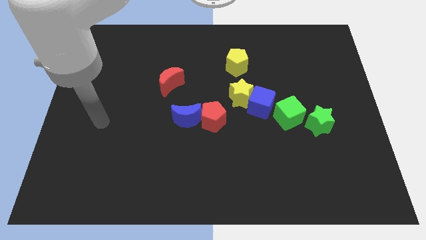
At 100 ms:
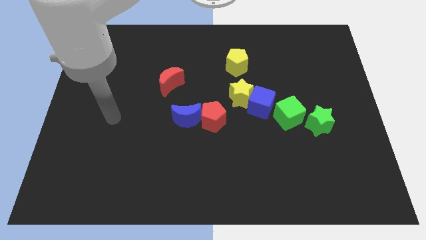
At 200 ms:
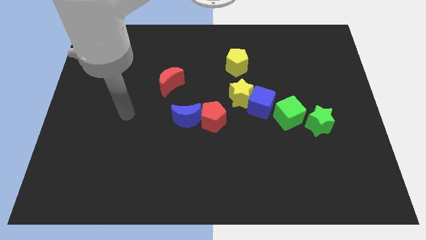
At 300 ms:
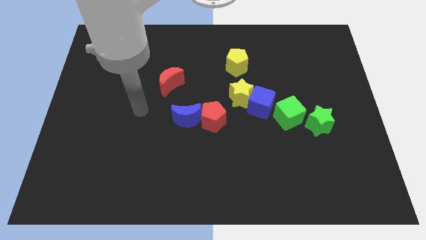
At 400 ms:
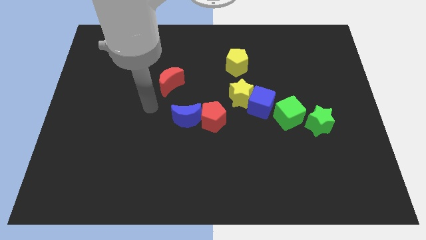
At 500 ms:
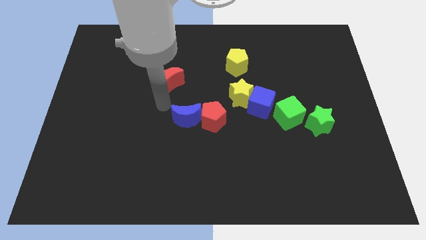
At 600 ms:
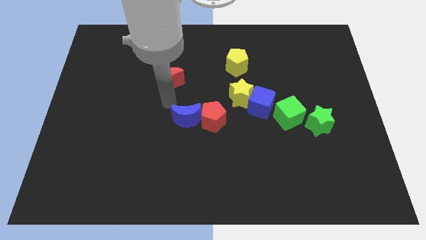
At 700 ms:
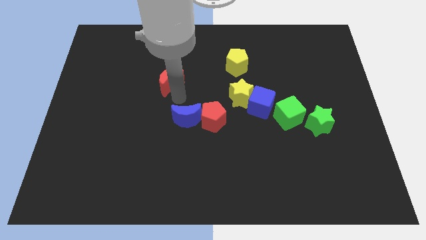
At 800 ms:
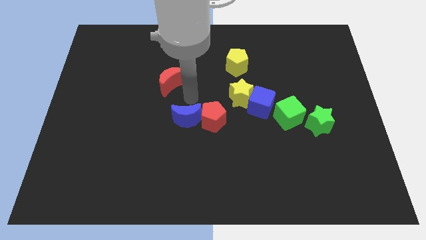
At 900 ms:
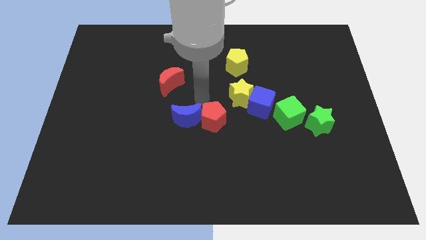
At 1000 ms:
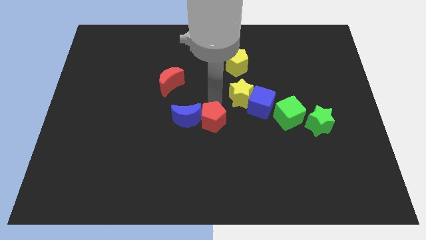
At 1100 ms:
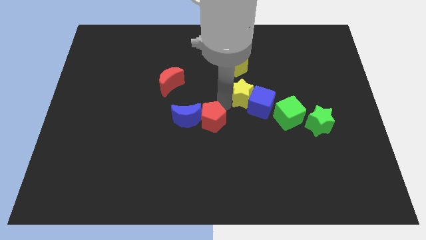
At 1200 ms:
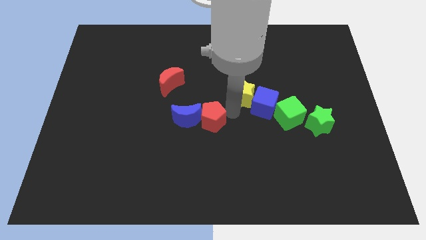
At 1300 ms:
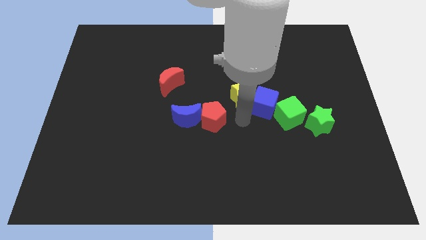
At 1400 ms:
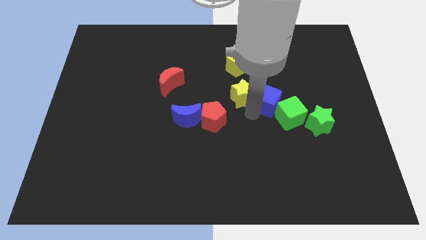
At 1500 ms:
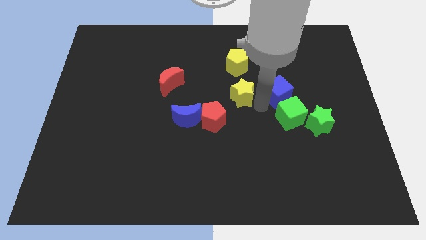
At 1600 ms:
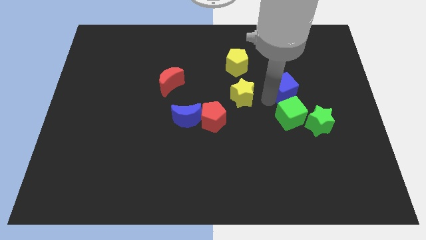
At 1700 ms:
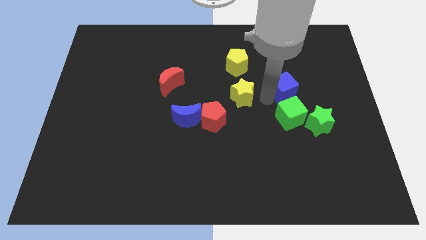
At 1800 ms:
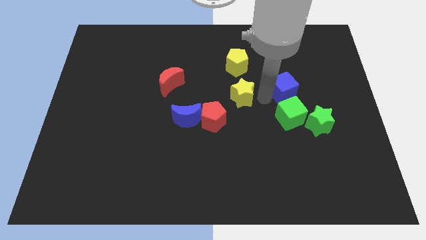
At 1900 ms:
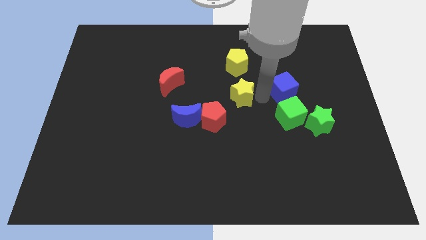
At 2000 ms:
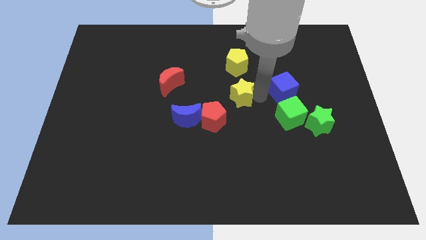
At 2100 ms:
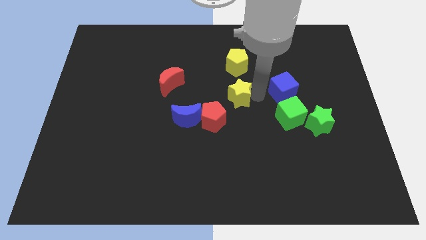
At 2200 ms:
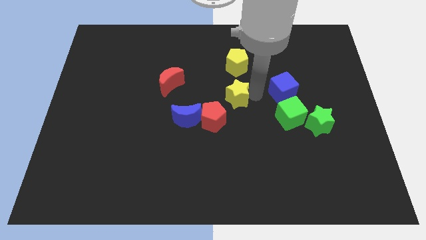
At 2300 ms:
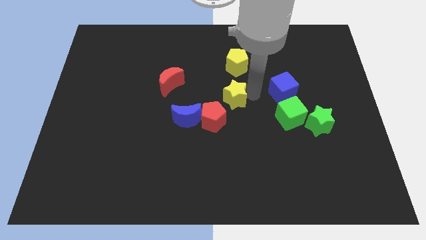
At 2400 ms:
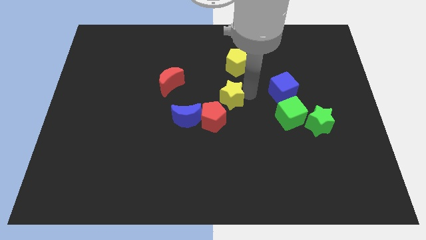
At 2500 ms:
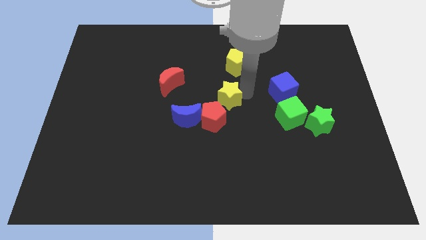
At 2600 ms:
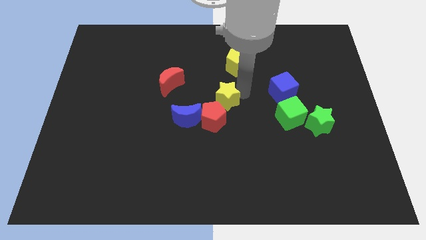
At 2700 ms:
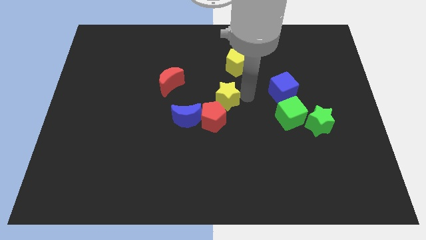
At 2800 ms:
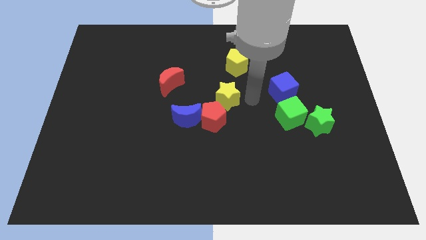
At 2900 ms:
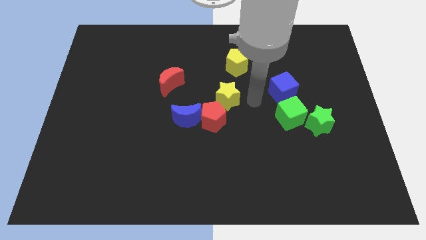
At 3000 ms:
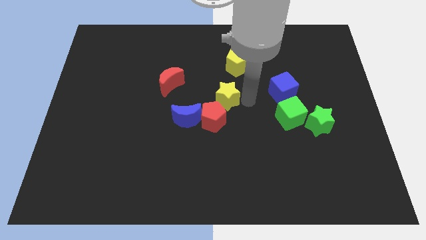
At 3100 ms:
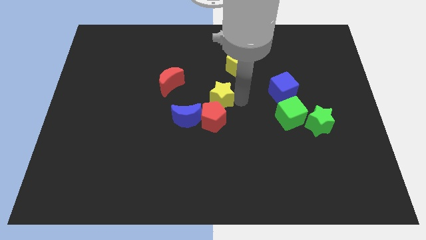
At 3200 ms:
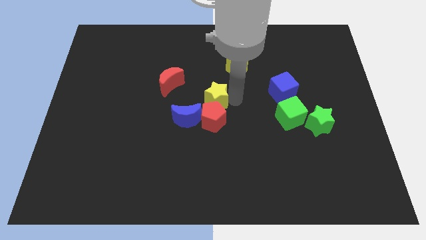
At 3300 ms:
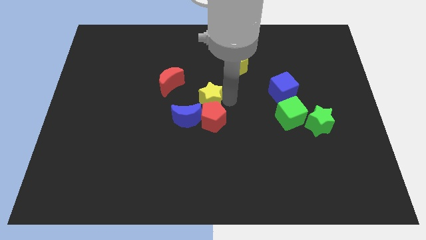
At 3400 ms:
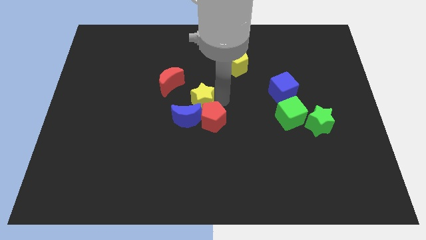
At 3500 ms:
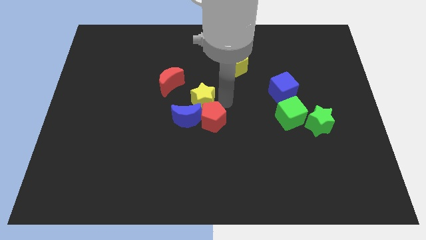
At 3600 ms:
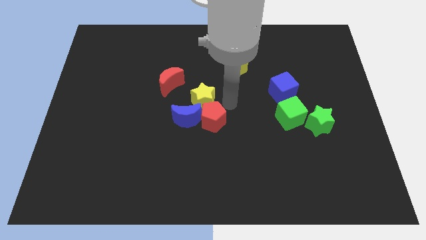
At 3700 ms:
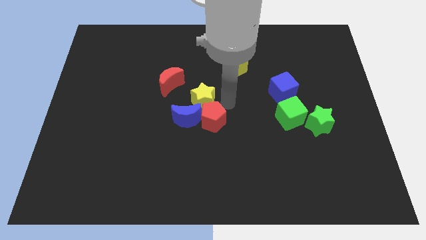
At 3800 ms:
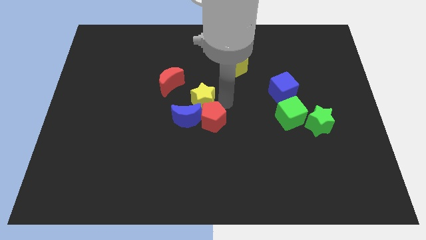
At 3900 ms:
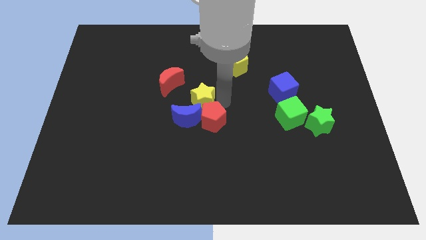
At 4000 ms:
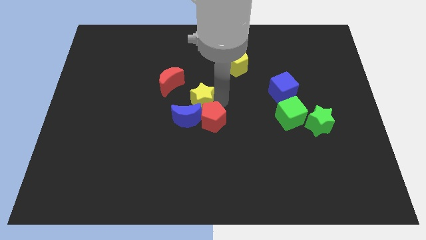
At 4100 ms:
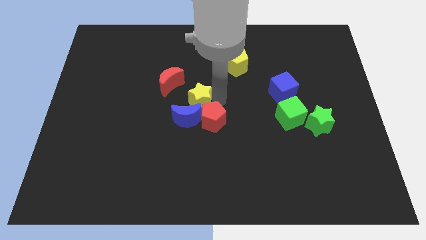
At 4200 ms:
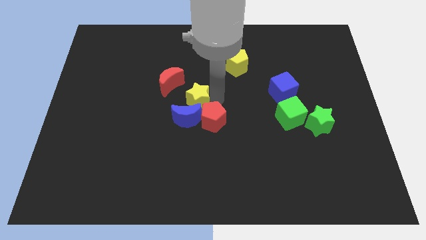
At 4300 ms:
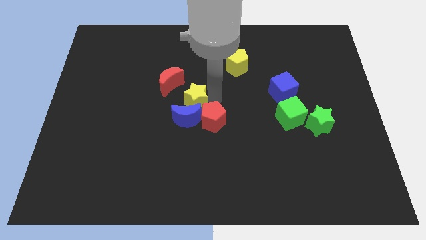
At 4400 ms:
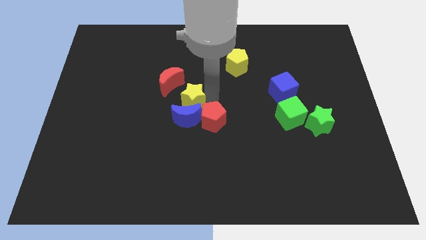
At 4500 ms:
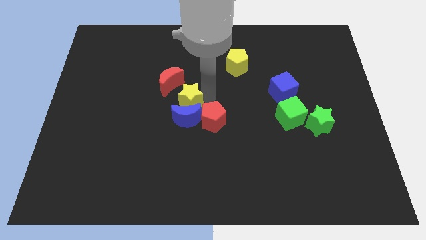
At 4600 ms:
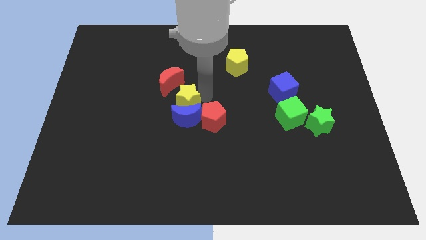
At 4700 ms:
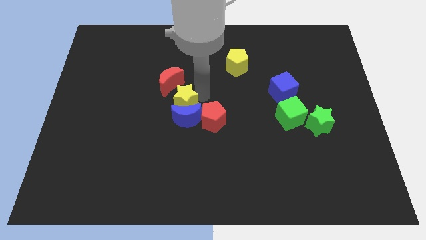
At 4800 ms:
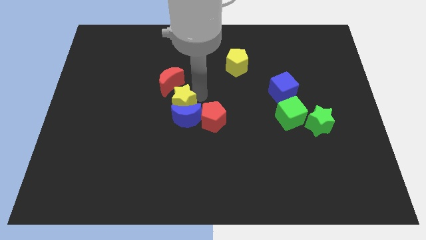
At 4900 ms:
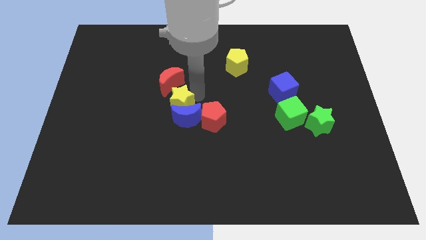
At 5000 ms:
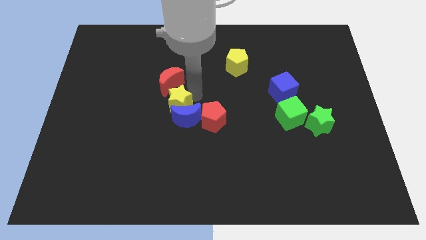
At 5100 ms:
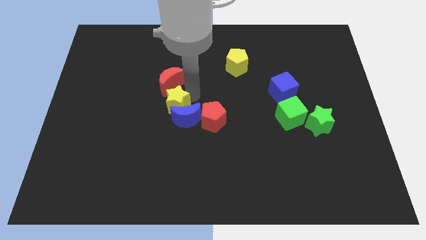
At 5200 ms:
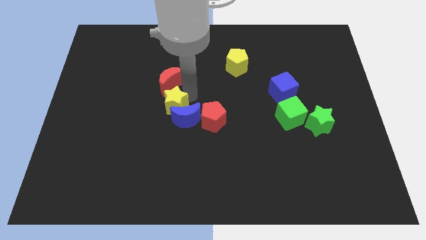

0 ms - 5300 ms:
slide the yellow star to the left of the blue moon

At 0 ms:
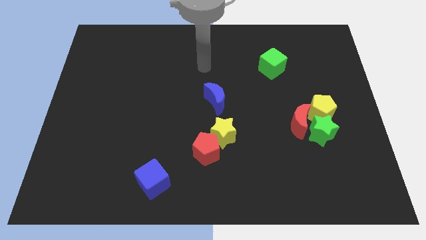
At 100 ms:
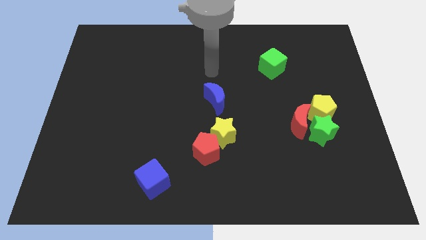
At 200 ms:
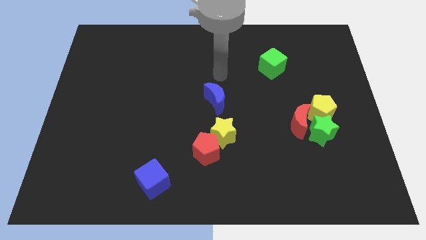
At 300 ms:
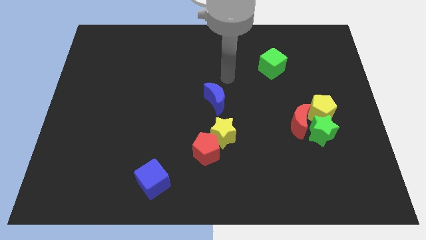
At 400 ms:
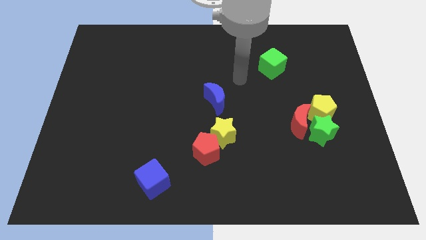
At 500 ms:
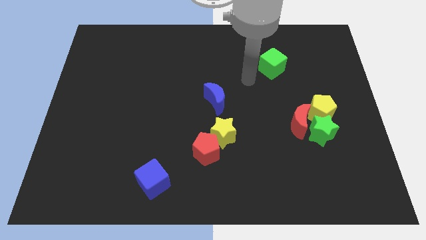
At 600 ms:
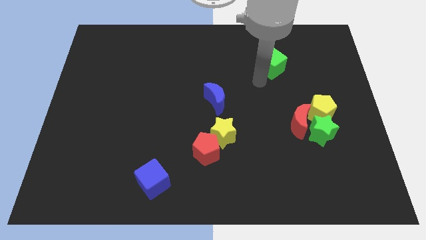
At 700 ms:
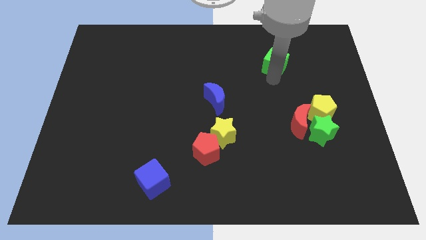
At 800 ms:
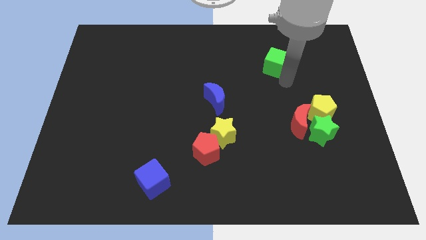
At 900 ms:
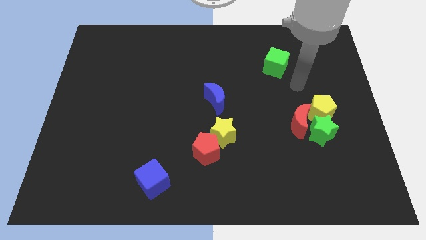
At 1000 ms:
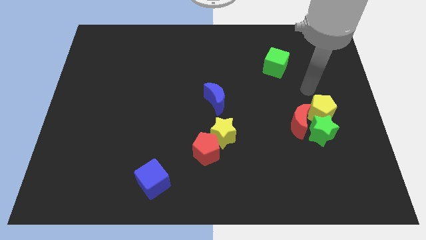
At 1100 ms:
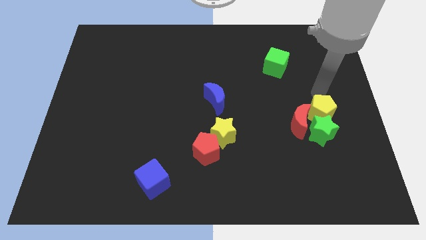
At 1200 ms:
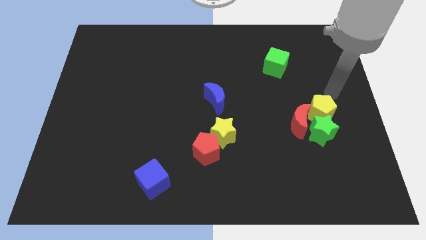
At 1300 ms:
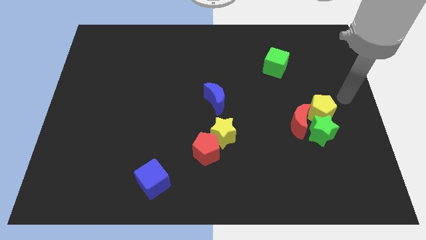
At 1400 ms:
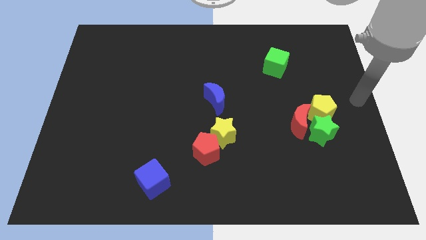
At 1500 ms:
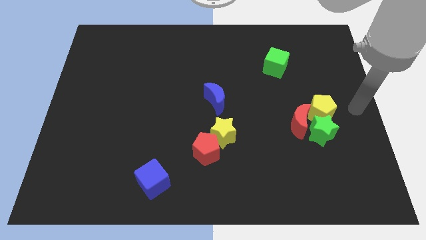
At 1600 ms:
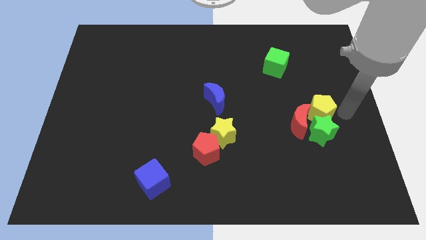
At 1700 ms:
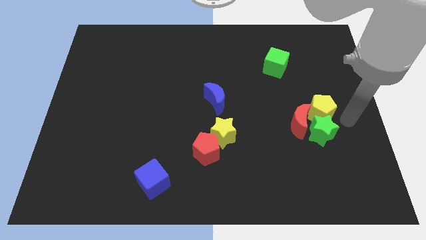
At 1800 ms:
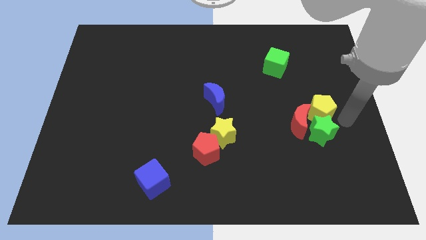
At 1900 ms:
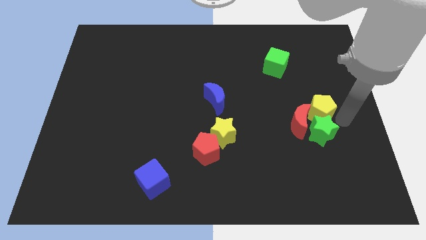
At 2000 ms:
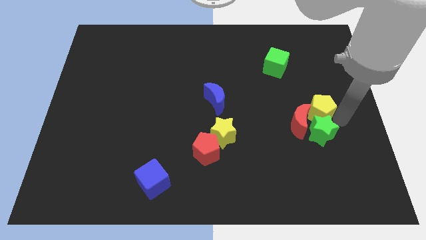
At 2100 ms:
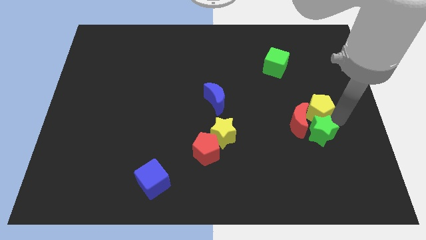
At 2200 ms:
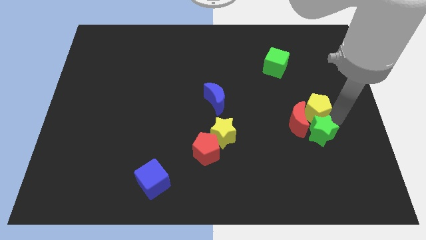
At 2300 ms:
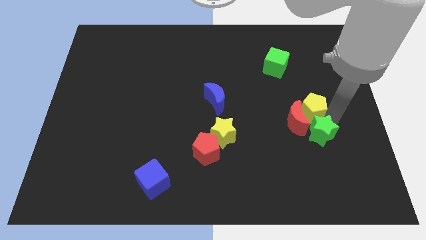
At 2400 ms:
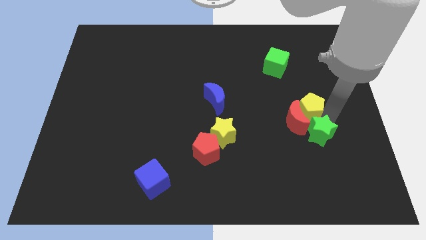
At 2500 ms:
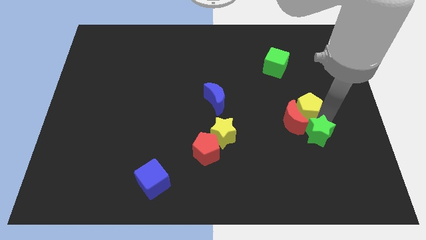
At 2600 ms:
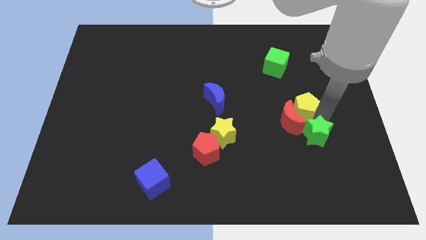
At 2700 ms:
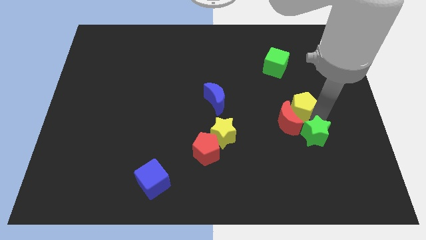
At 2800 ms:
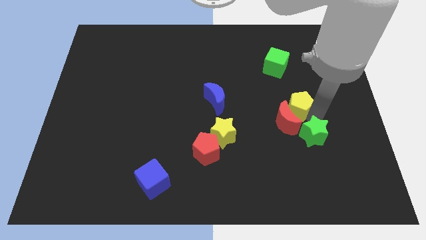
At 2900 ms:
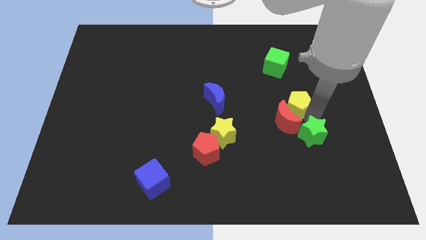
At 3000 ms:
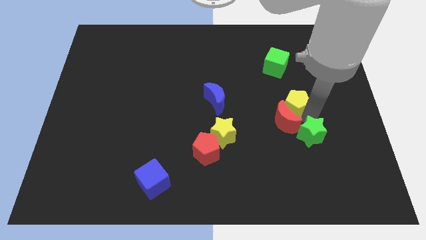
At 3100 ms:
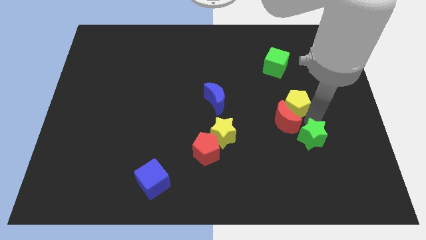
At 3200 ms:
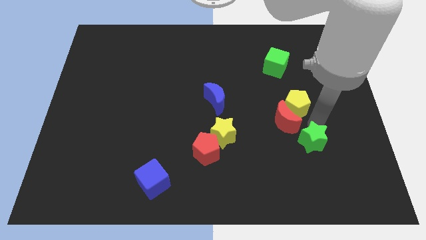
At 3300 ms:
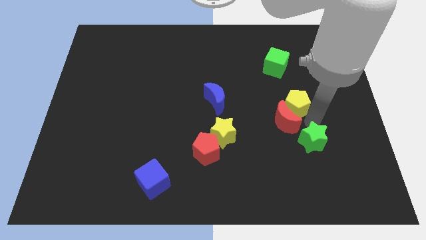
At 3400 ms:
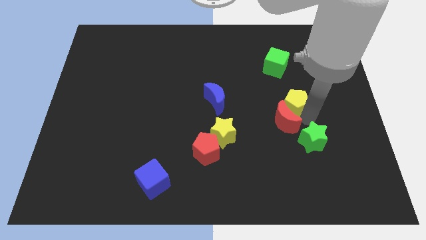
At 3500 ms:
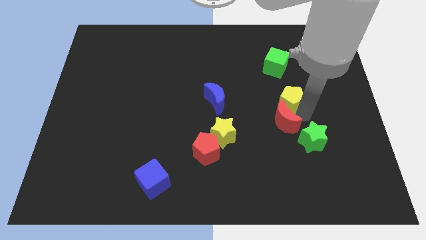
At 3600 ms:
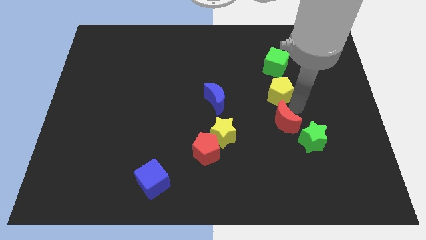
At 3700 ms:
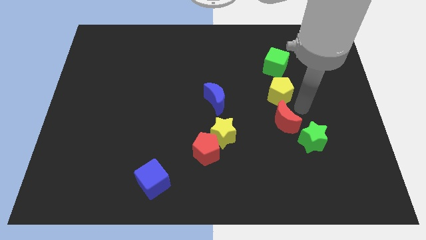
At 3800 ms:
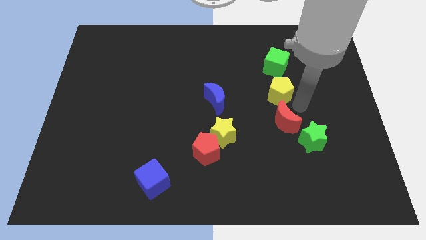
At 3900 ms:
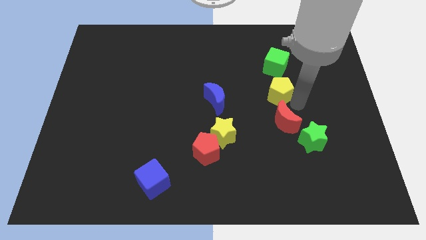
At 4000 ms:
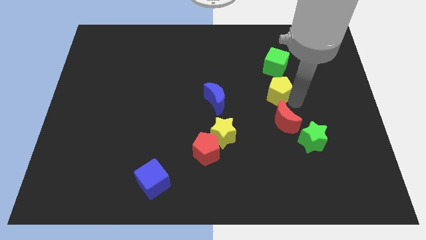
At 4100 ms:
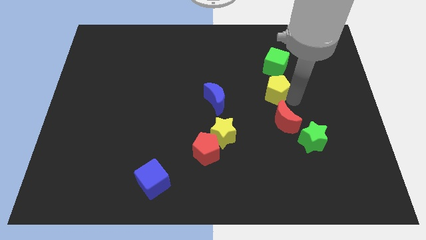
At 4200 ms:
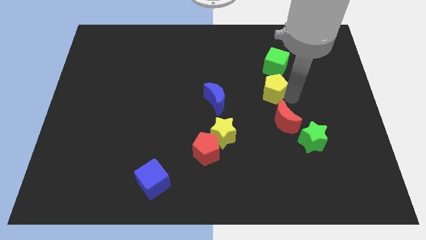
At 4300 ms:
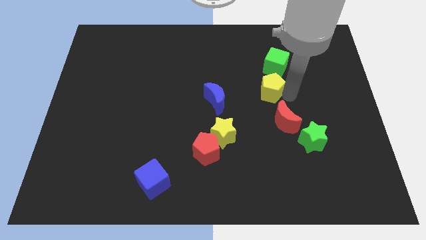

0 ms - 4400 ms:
push the yellow pentagon to the bottom left side of the green cube
